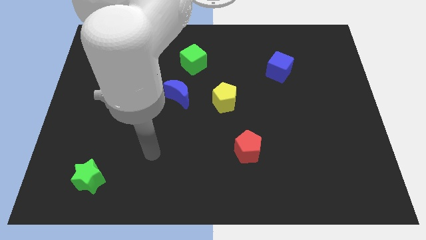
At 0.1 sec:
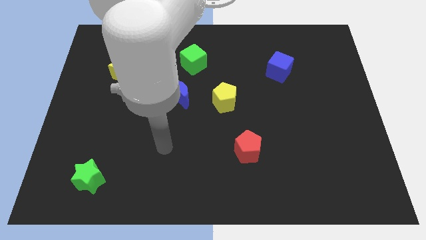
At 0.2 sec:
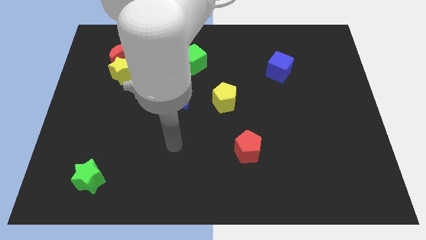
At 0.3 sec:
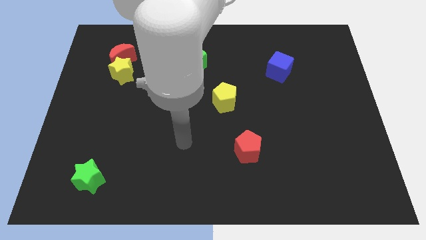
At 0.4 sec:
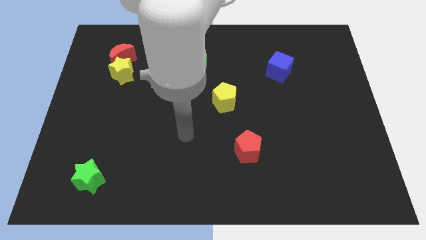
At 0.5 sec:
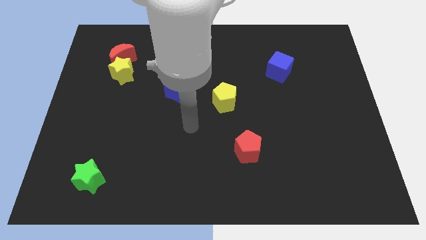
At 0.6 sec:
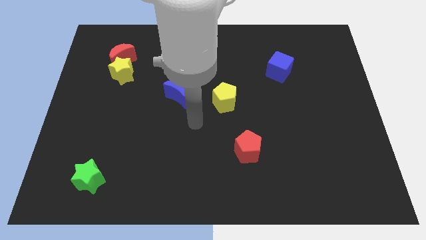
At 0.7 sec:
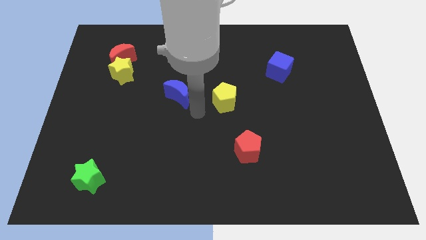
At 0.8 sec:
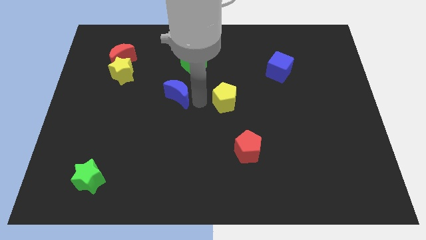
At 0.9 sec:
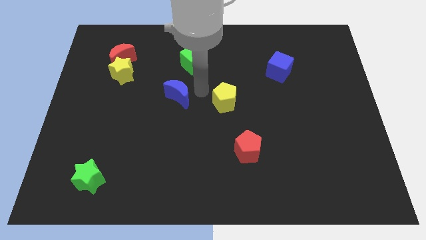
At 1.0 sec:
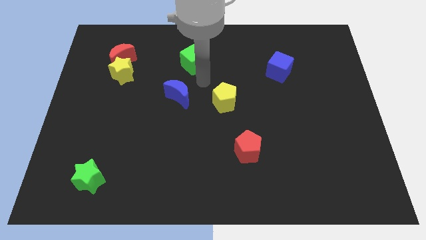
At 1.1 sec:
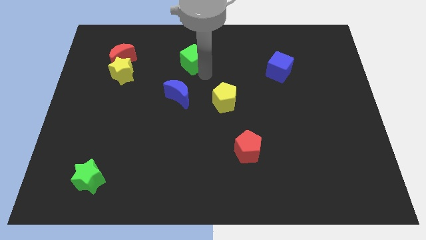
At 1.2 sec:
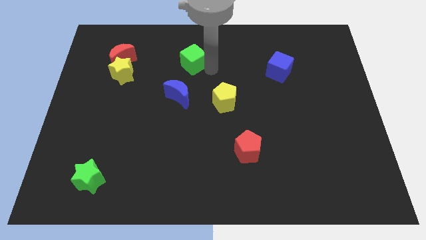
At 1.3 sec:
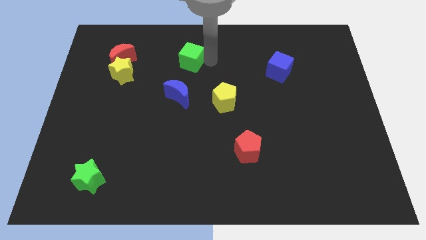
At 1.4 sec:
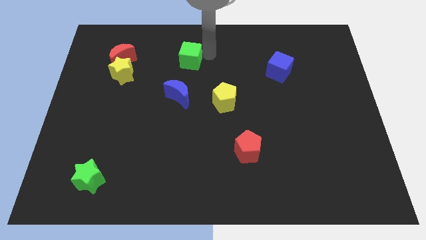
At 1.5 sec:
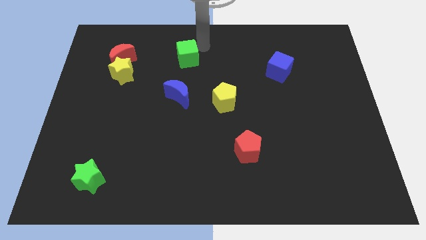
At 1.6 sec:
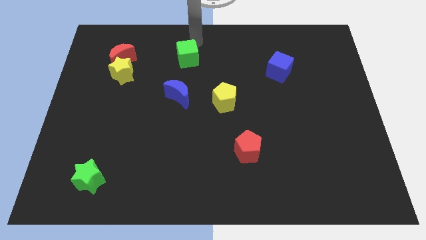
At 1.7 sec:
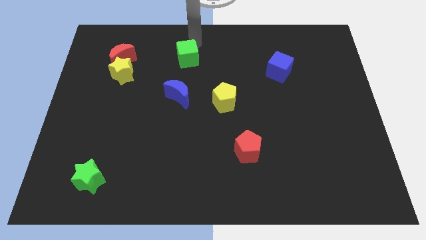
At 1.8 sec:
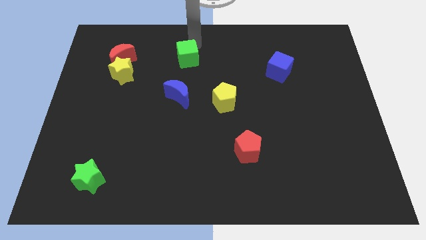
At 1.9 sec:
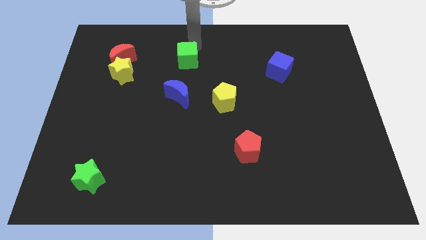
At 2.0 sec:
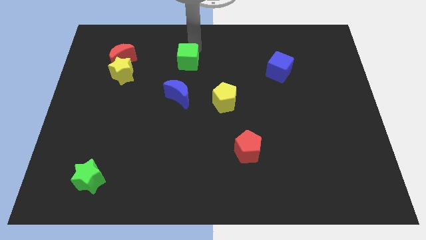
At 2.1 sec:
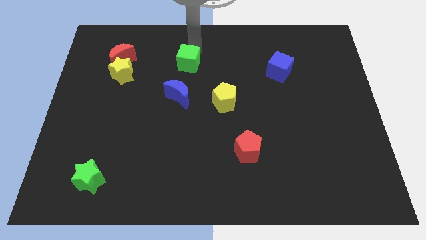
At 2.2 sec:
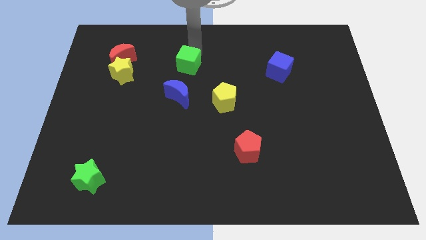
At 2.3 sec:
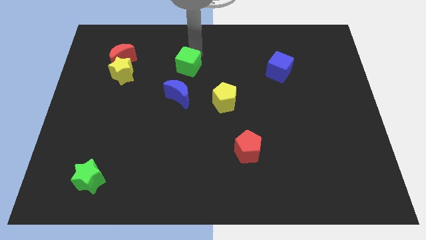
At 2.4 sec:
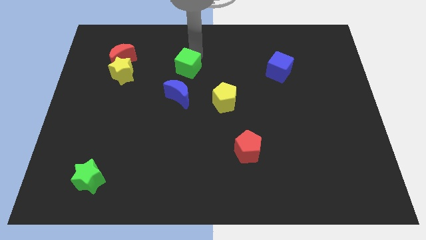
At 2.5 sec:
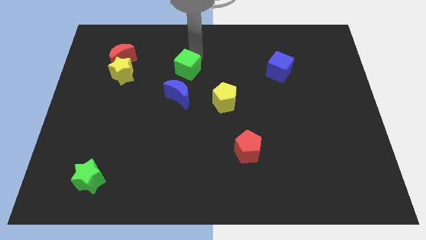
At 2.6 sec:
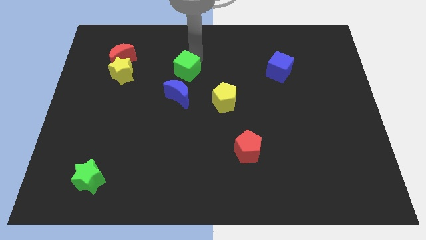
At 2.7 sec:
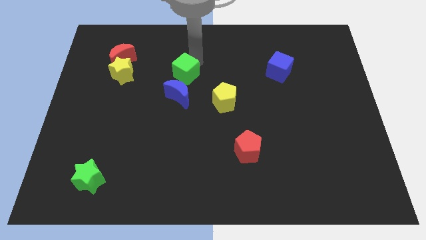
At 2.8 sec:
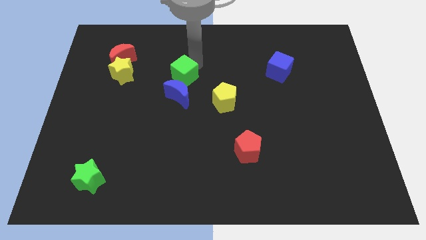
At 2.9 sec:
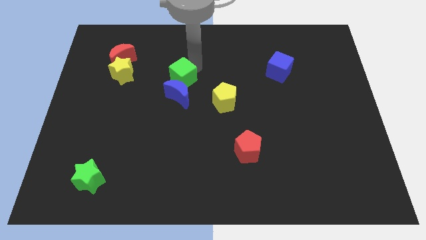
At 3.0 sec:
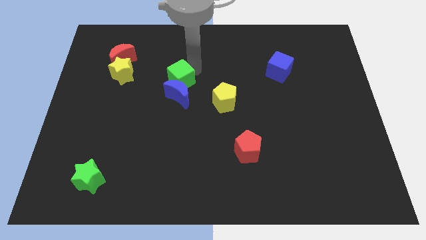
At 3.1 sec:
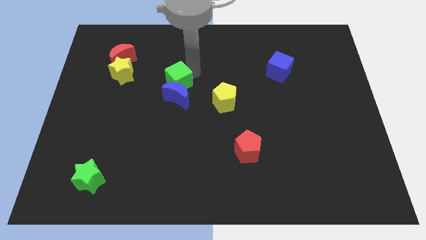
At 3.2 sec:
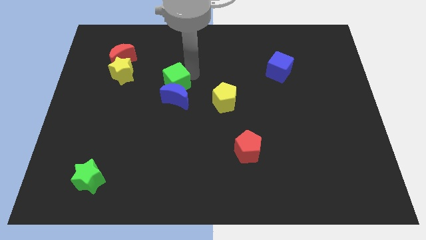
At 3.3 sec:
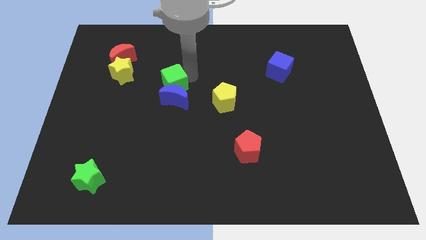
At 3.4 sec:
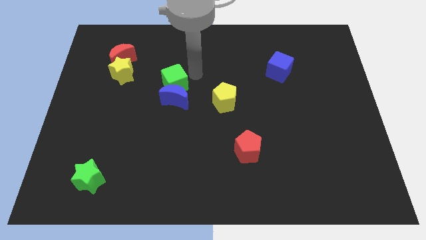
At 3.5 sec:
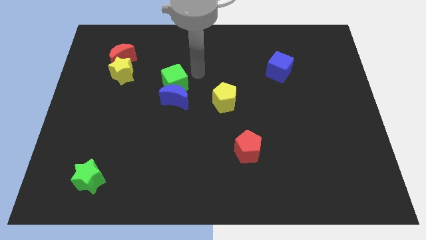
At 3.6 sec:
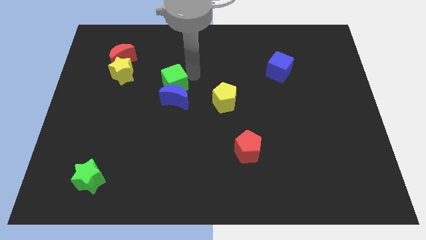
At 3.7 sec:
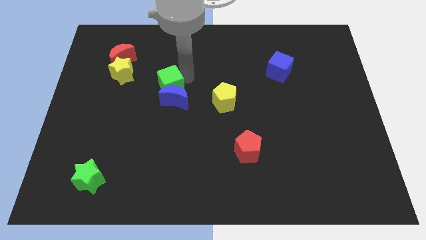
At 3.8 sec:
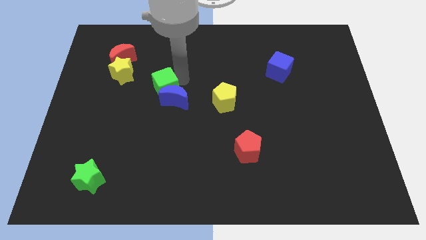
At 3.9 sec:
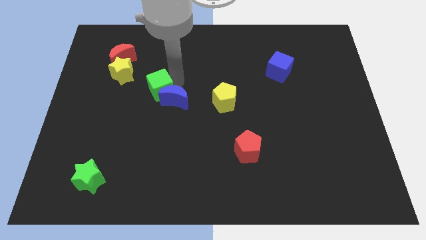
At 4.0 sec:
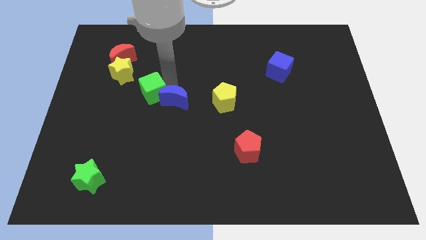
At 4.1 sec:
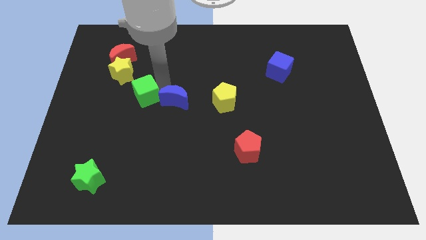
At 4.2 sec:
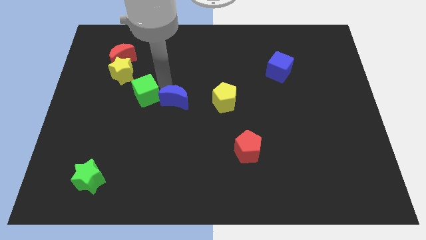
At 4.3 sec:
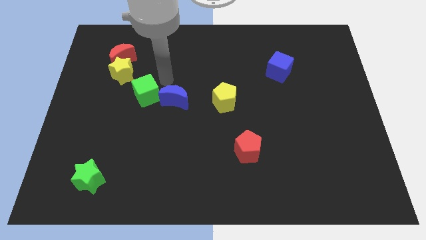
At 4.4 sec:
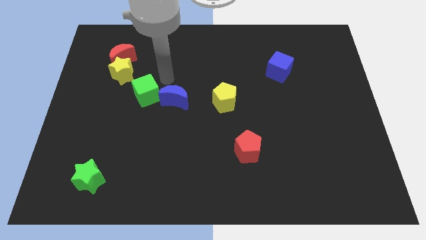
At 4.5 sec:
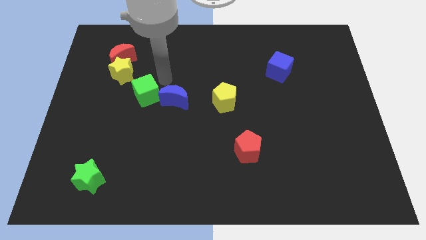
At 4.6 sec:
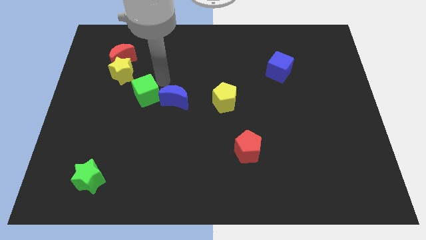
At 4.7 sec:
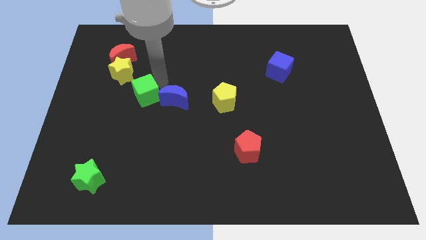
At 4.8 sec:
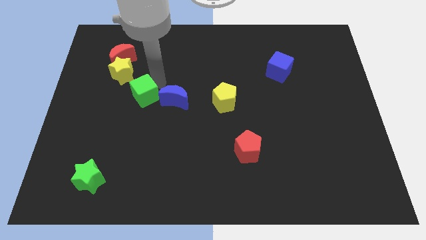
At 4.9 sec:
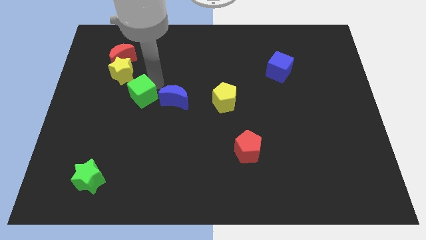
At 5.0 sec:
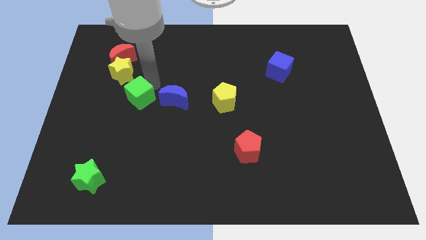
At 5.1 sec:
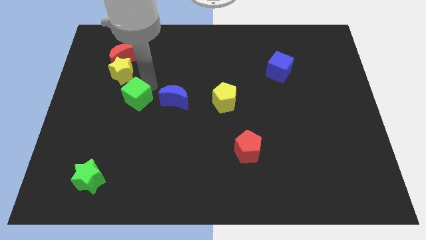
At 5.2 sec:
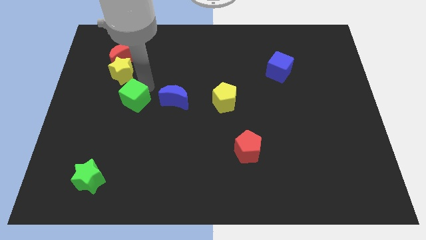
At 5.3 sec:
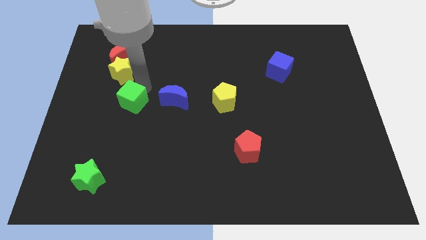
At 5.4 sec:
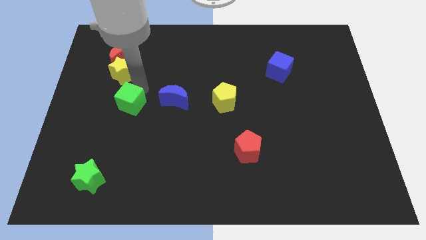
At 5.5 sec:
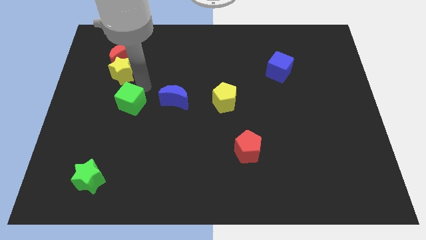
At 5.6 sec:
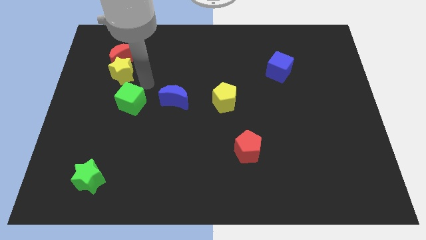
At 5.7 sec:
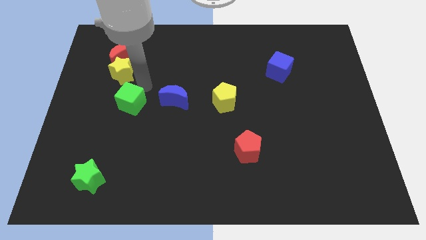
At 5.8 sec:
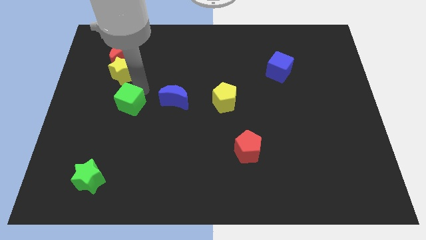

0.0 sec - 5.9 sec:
move the green cube diagonally downwards and to the left

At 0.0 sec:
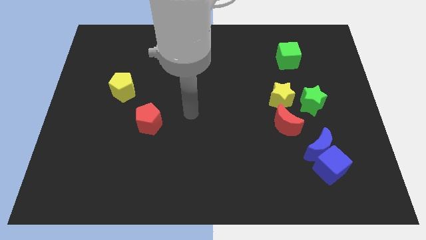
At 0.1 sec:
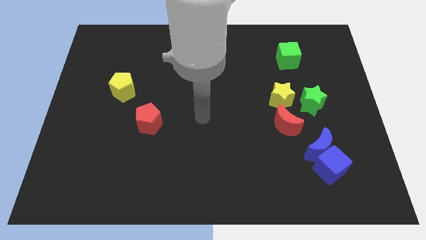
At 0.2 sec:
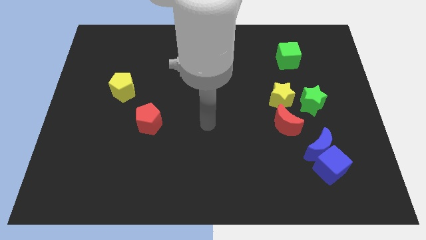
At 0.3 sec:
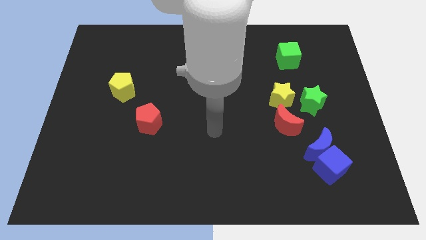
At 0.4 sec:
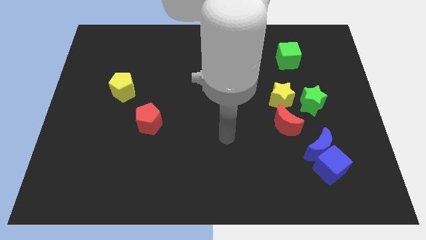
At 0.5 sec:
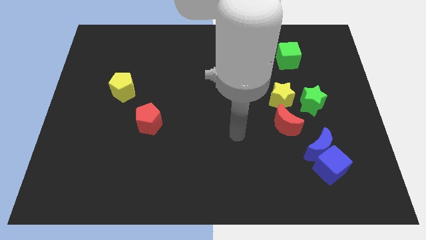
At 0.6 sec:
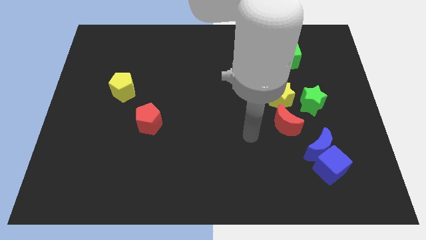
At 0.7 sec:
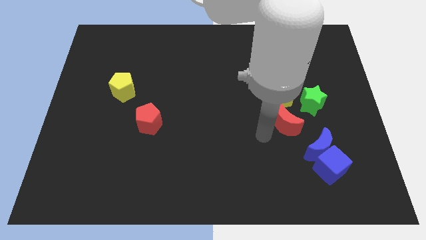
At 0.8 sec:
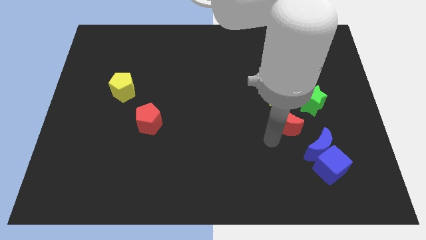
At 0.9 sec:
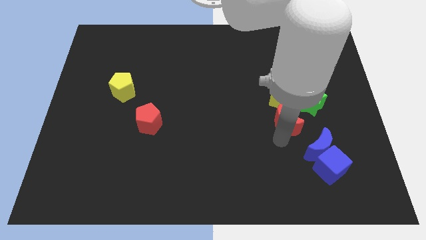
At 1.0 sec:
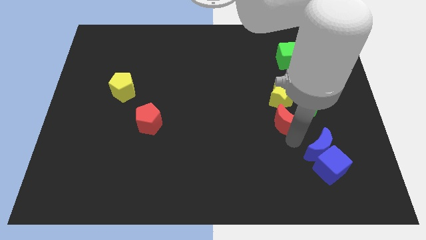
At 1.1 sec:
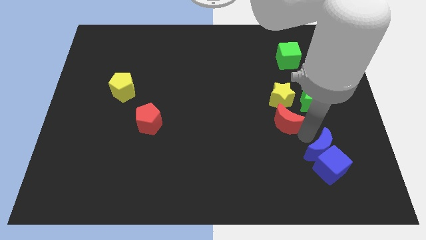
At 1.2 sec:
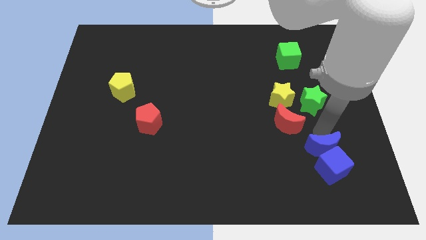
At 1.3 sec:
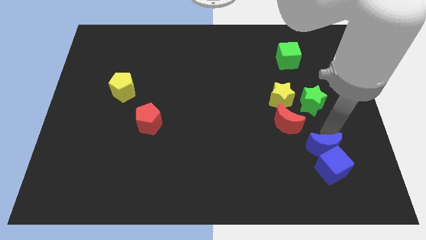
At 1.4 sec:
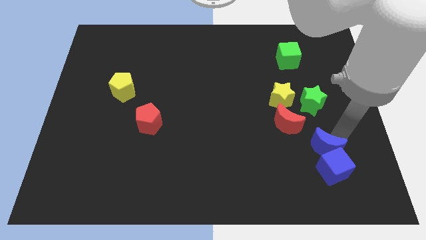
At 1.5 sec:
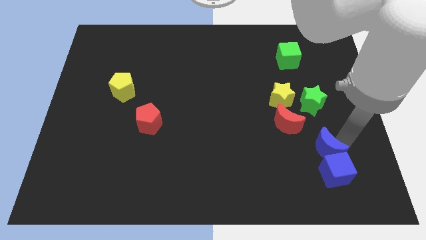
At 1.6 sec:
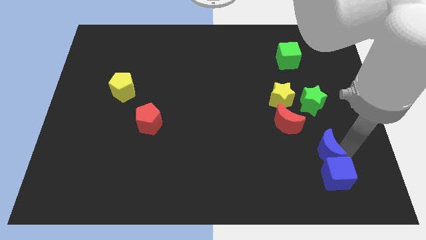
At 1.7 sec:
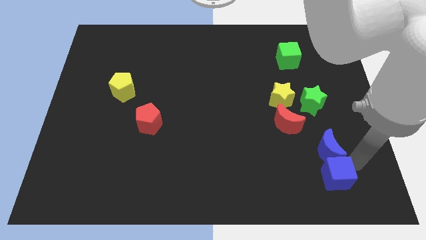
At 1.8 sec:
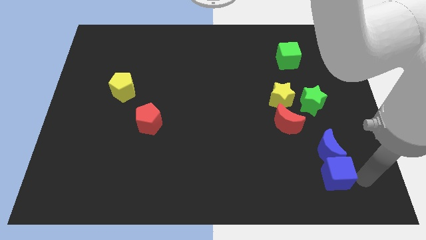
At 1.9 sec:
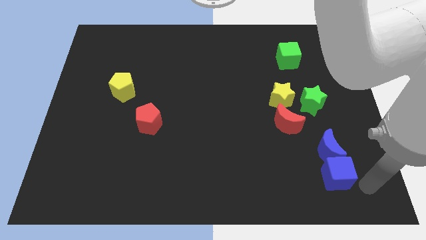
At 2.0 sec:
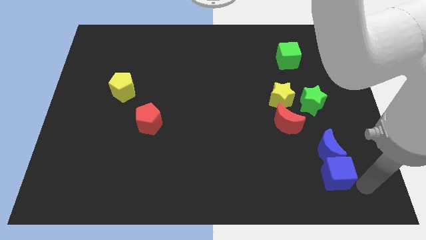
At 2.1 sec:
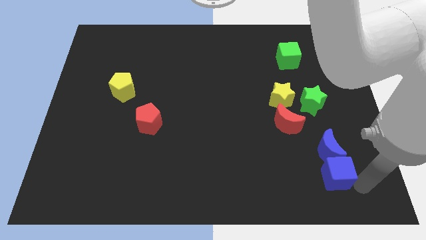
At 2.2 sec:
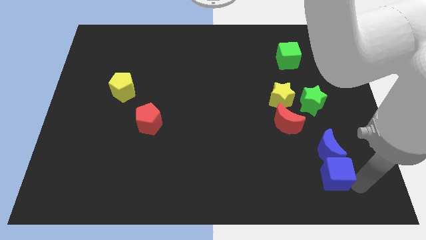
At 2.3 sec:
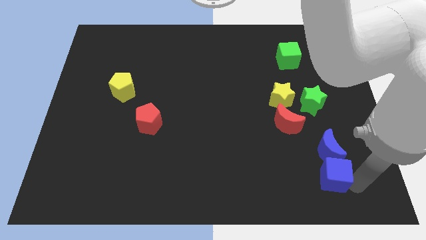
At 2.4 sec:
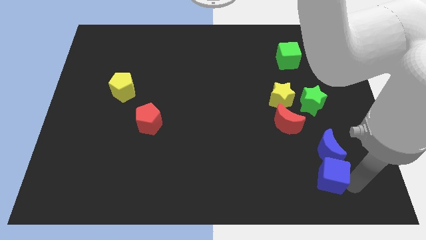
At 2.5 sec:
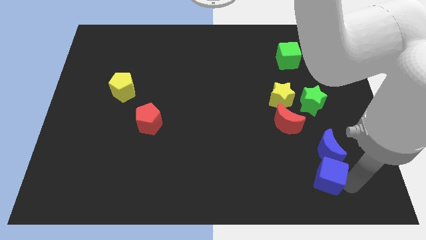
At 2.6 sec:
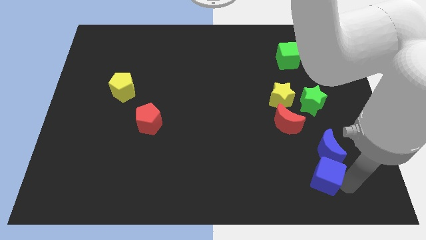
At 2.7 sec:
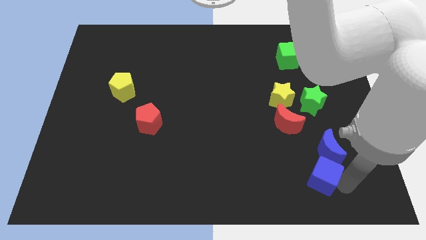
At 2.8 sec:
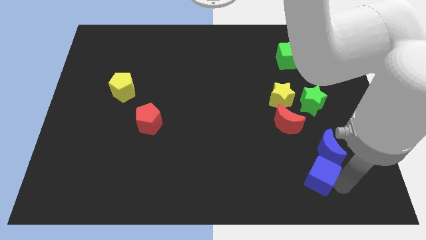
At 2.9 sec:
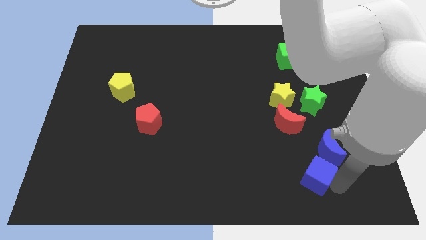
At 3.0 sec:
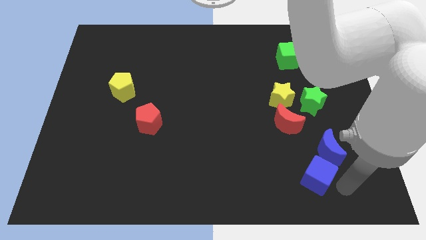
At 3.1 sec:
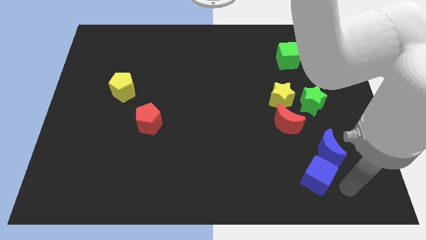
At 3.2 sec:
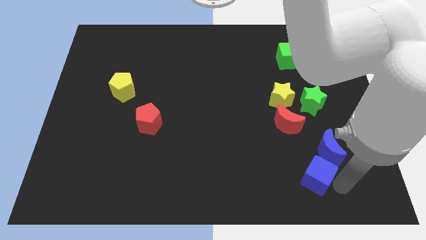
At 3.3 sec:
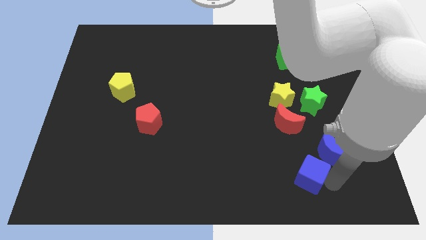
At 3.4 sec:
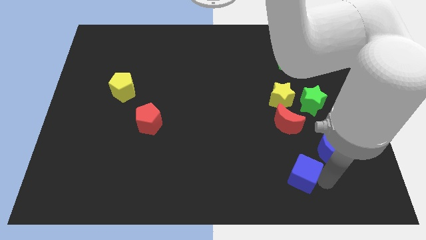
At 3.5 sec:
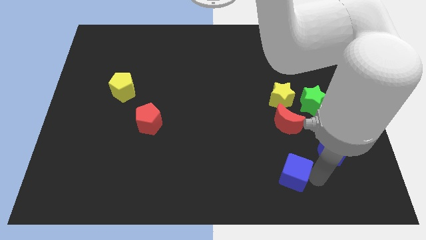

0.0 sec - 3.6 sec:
move the blue cube a little bit left
